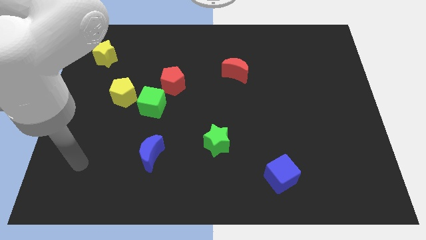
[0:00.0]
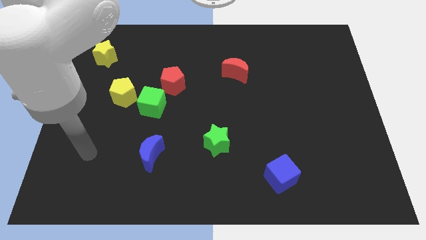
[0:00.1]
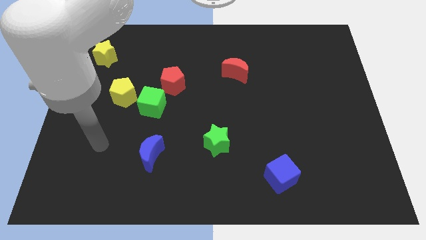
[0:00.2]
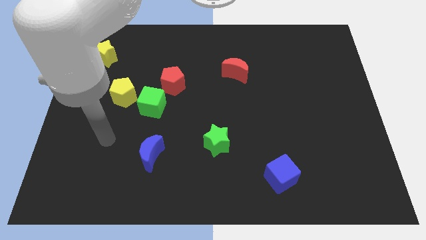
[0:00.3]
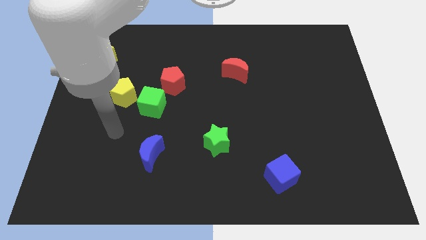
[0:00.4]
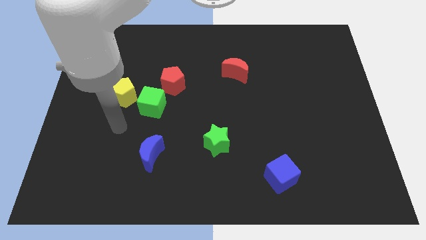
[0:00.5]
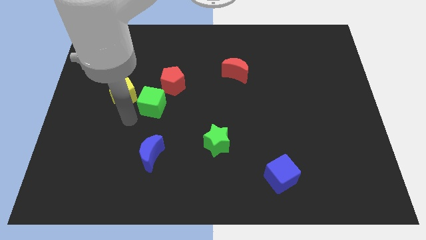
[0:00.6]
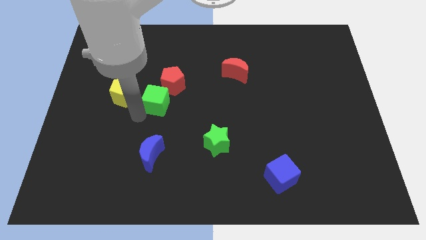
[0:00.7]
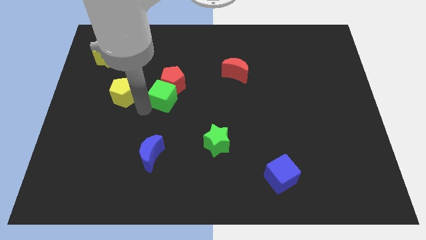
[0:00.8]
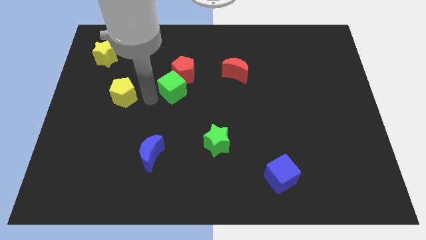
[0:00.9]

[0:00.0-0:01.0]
separate the yellow pentagon from the green cube

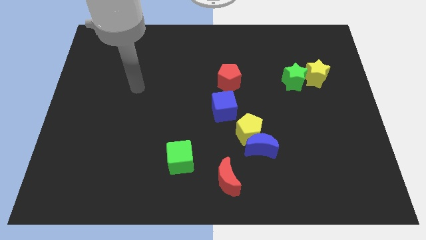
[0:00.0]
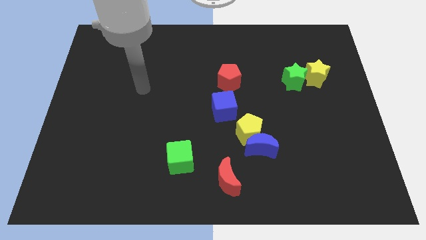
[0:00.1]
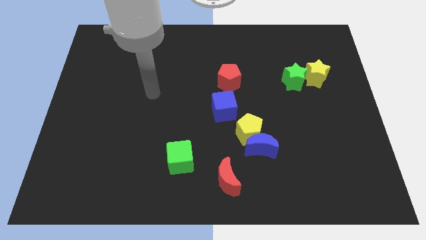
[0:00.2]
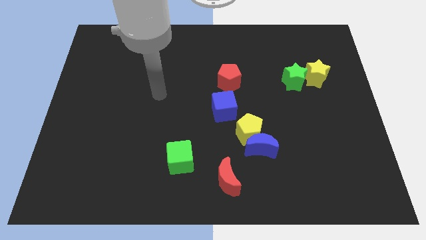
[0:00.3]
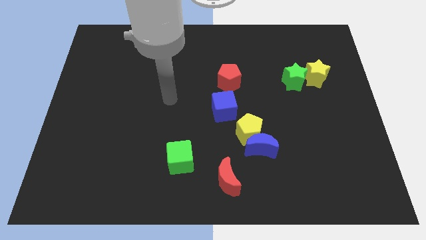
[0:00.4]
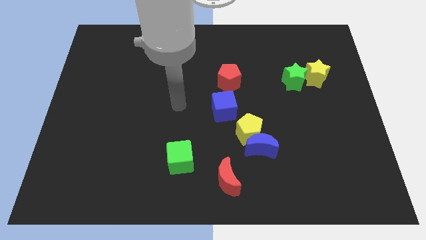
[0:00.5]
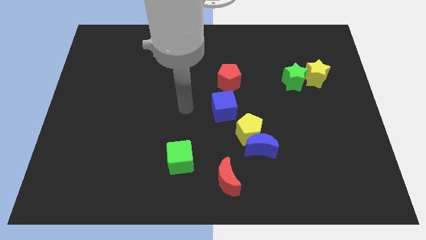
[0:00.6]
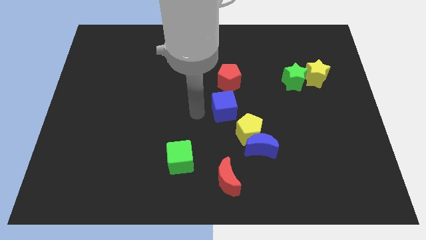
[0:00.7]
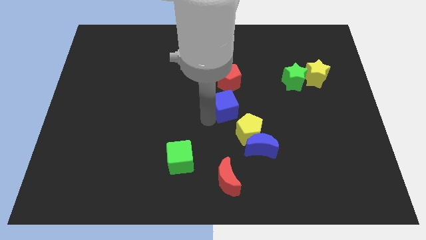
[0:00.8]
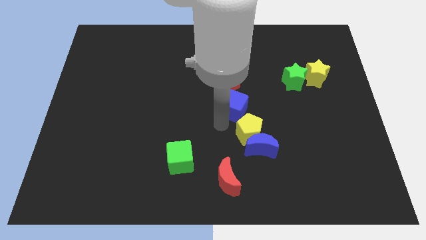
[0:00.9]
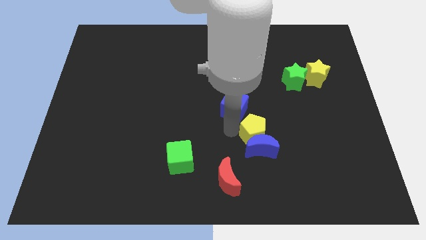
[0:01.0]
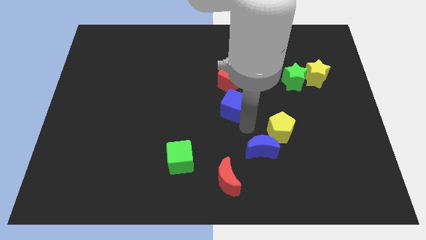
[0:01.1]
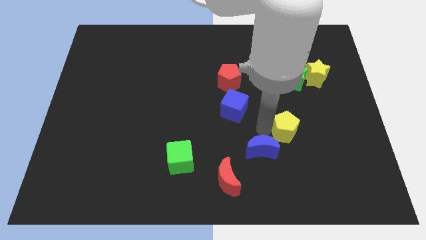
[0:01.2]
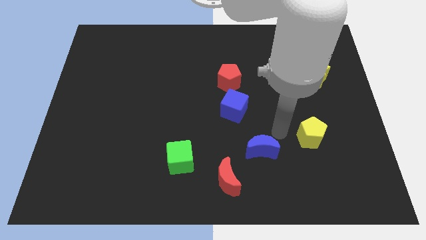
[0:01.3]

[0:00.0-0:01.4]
pull the blue moon apart from the yellow pentagon

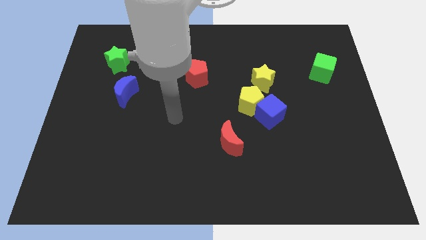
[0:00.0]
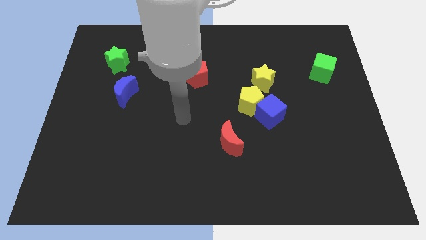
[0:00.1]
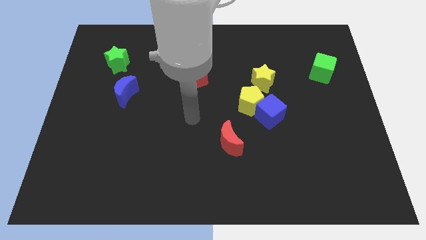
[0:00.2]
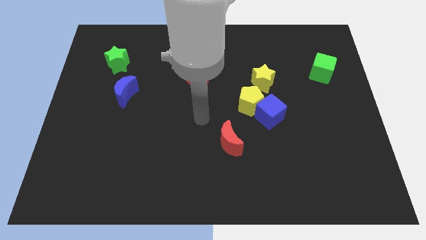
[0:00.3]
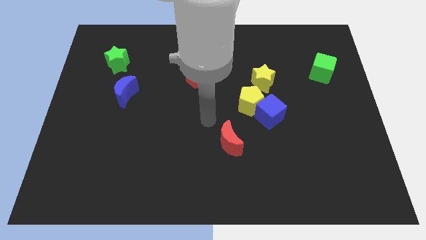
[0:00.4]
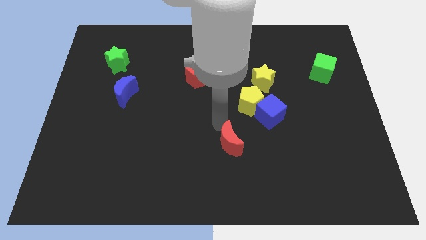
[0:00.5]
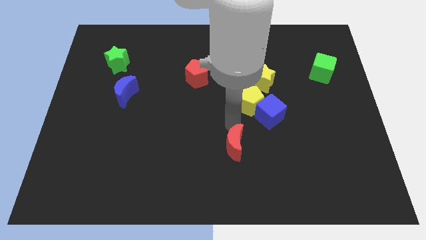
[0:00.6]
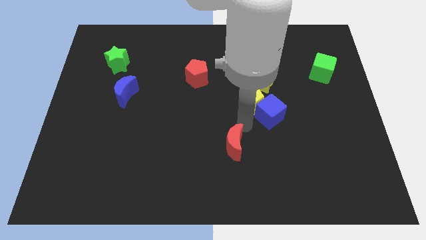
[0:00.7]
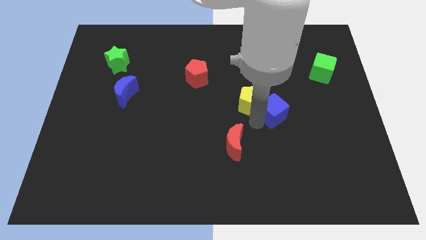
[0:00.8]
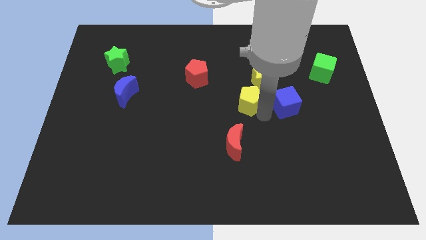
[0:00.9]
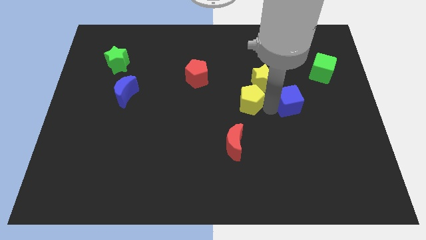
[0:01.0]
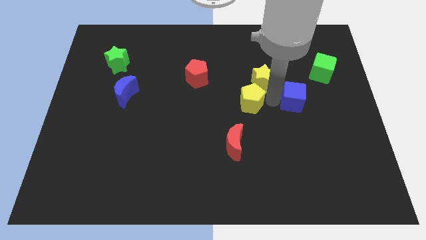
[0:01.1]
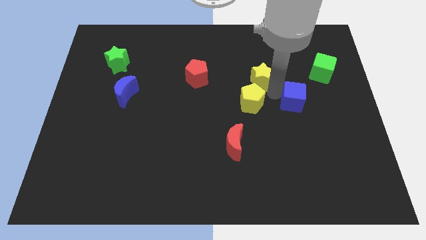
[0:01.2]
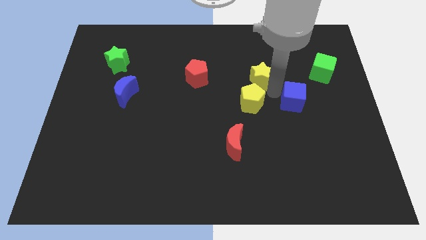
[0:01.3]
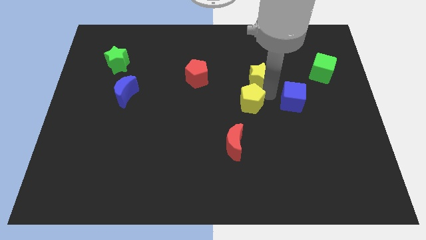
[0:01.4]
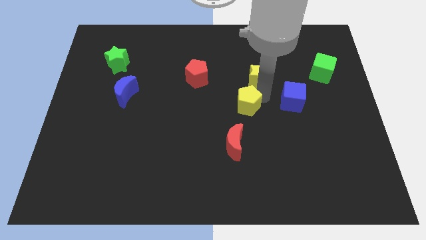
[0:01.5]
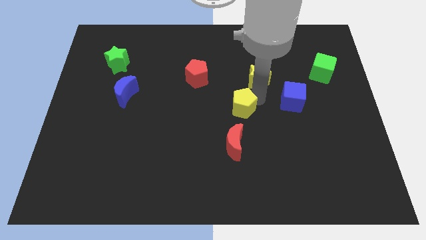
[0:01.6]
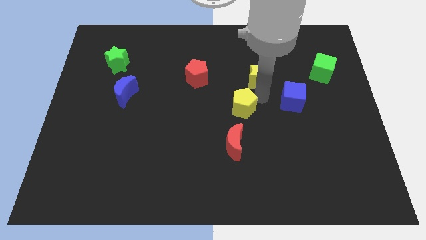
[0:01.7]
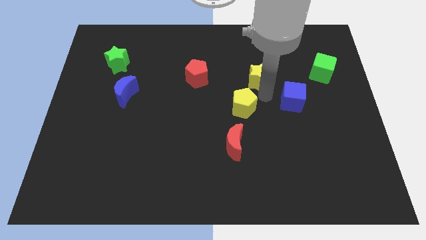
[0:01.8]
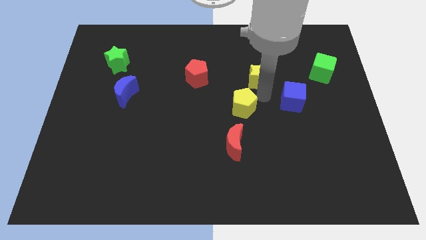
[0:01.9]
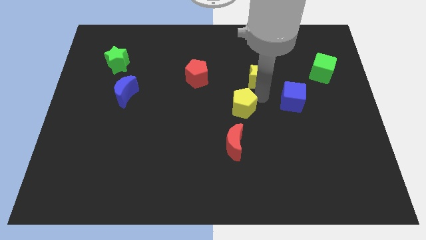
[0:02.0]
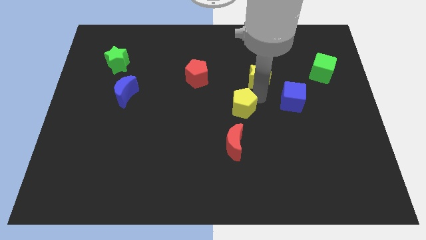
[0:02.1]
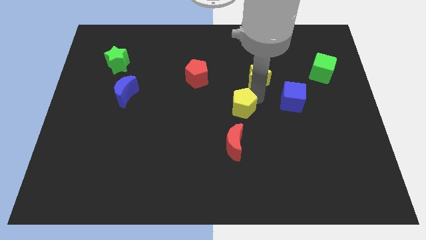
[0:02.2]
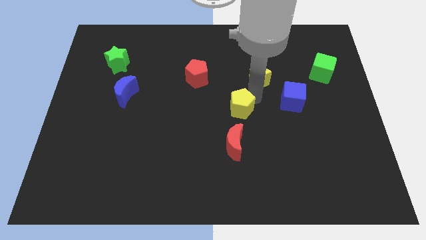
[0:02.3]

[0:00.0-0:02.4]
move the yellow pentagon away from the blue cube and yellow star

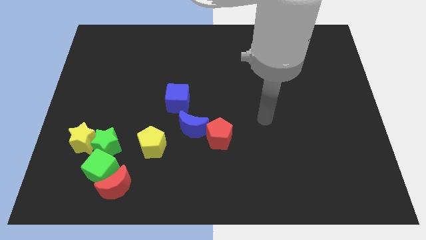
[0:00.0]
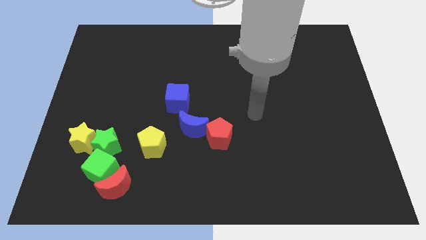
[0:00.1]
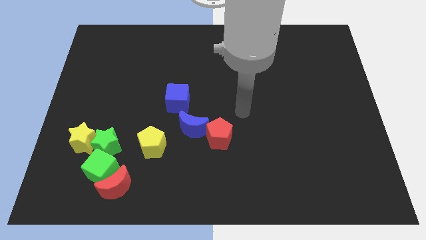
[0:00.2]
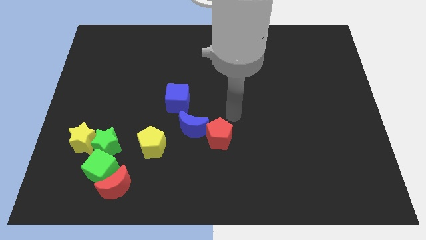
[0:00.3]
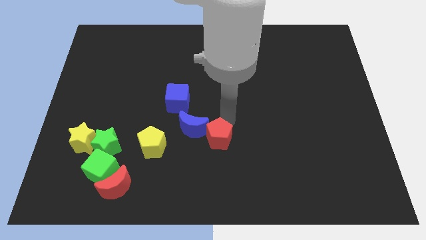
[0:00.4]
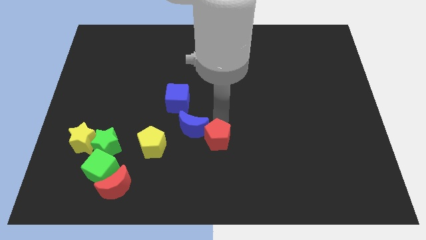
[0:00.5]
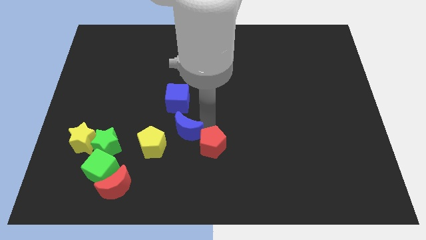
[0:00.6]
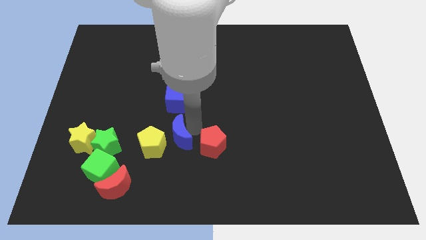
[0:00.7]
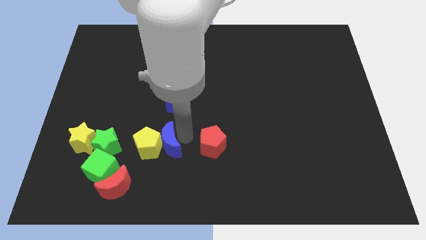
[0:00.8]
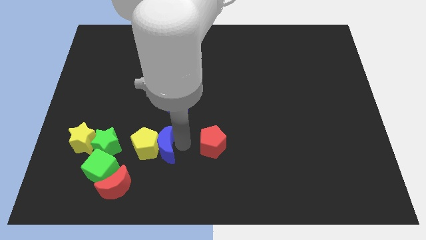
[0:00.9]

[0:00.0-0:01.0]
pull the red pentagon apart from the blue moon

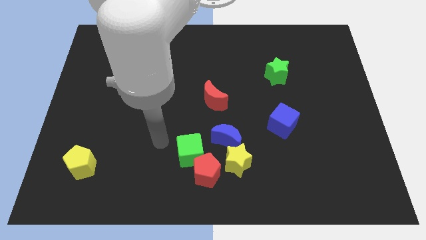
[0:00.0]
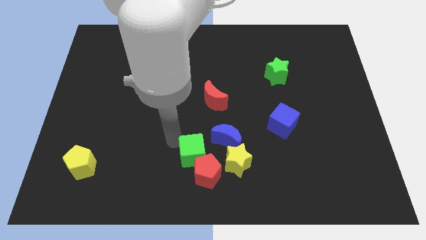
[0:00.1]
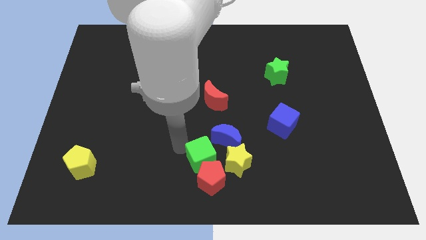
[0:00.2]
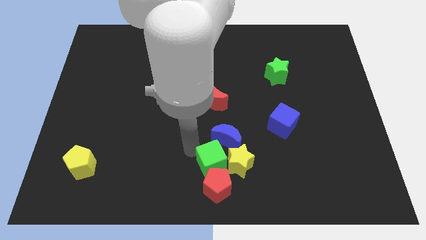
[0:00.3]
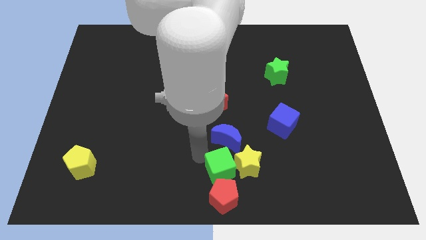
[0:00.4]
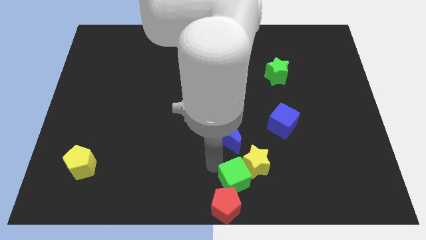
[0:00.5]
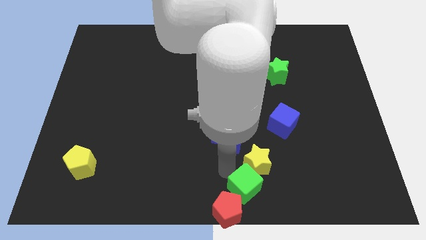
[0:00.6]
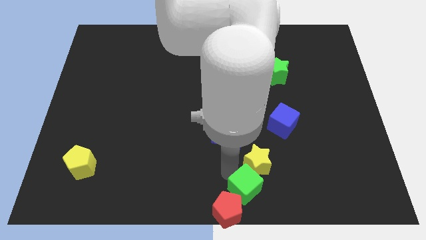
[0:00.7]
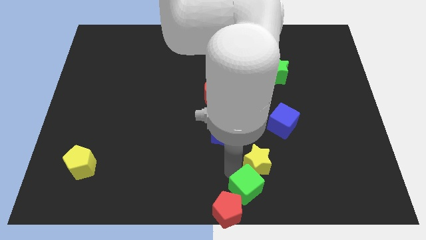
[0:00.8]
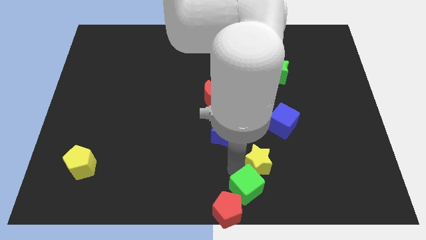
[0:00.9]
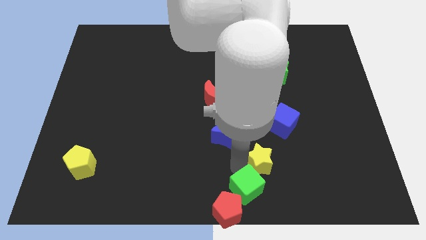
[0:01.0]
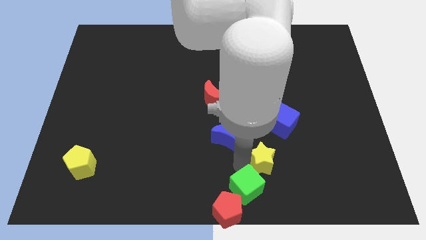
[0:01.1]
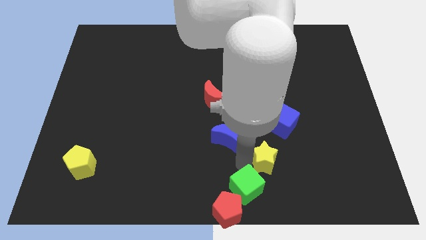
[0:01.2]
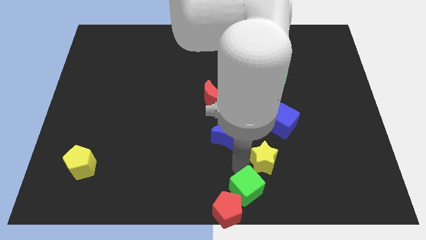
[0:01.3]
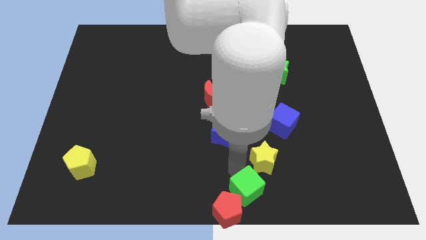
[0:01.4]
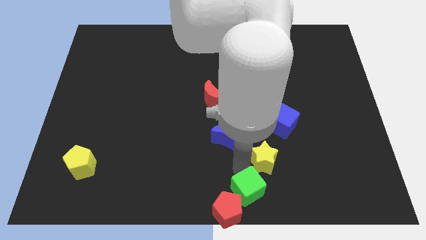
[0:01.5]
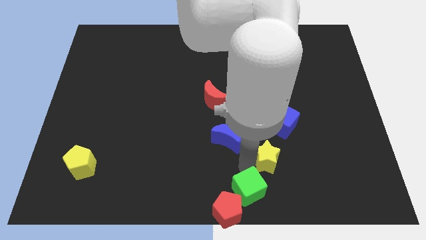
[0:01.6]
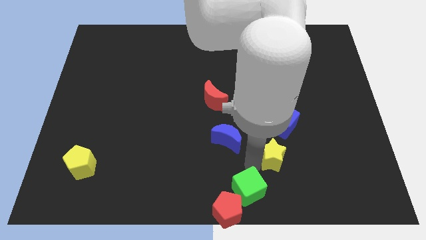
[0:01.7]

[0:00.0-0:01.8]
separate the yellow star from the blue moon and red pentagon

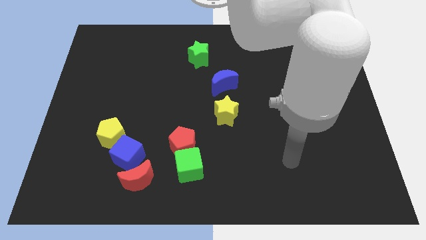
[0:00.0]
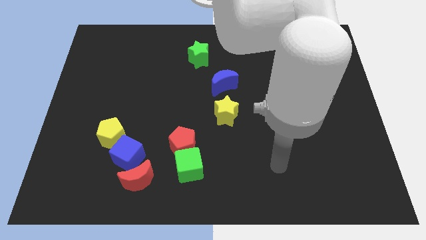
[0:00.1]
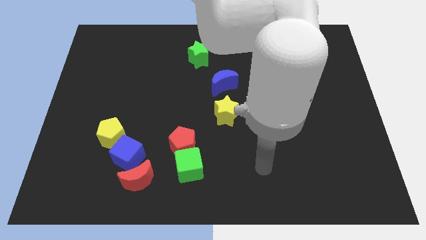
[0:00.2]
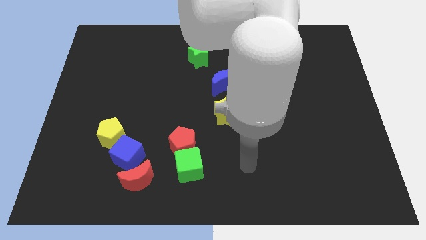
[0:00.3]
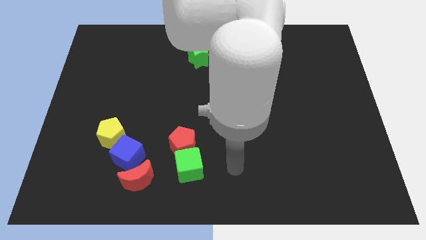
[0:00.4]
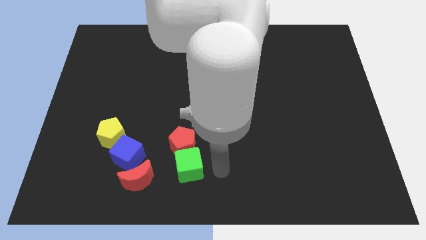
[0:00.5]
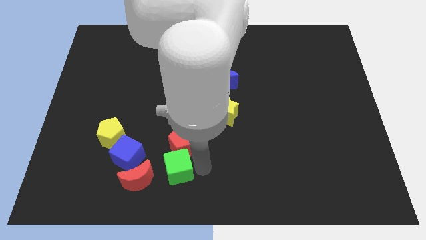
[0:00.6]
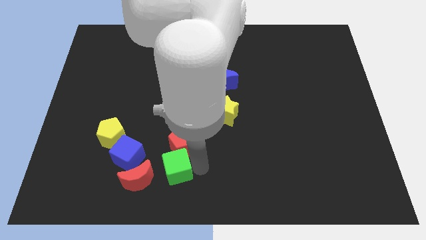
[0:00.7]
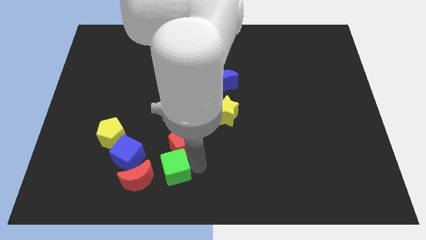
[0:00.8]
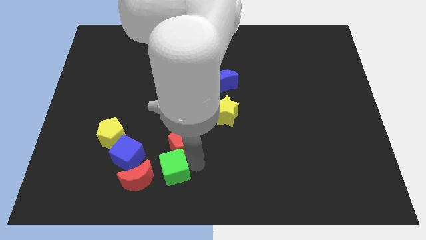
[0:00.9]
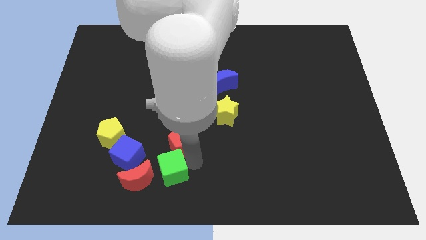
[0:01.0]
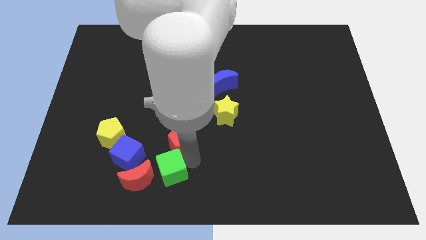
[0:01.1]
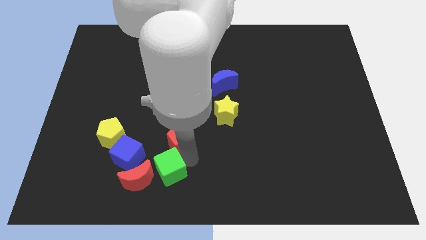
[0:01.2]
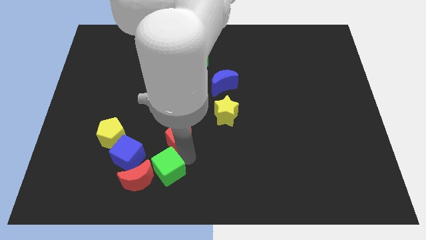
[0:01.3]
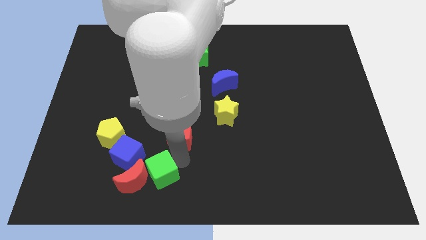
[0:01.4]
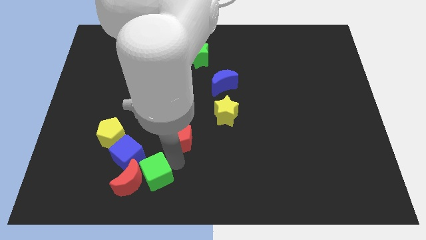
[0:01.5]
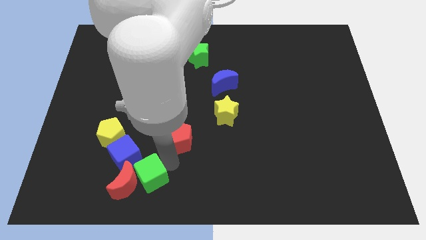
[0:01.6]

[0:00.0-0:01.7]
move the red pentagon away from the green cube

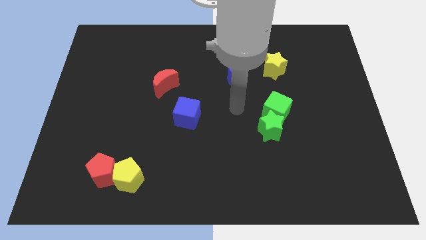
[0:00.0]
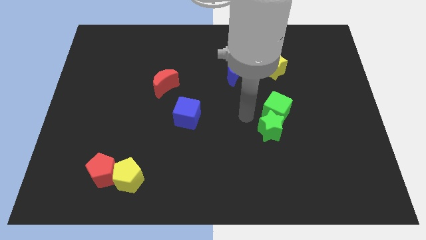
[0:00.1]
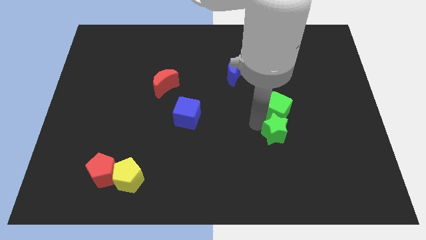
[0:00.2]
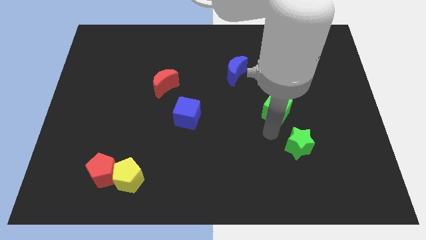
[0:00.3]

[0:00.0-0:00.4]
separate the green cube from the green star
